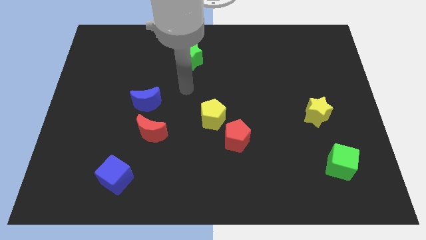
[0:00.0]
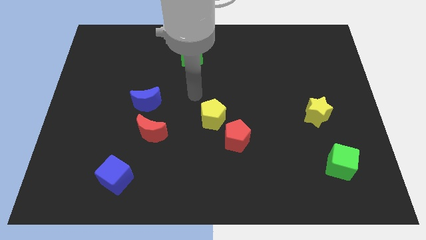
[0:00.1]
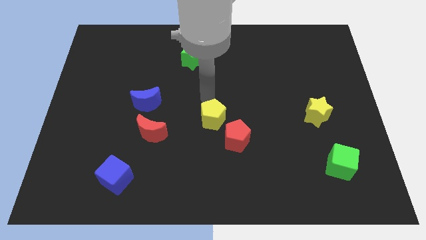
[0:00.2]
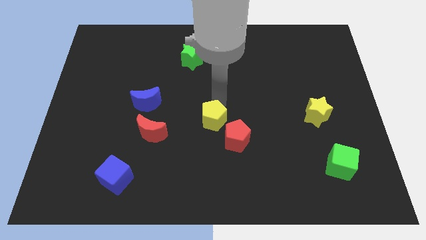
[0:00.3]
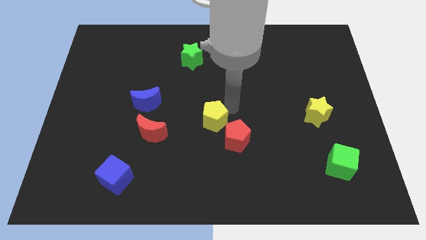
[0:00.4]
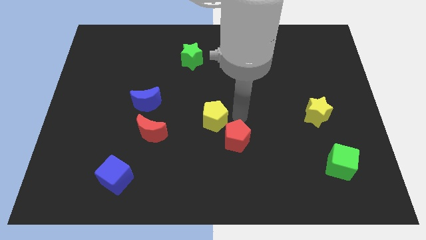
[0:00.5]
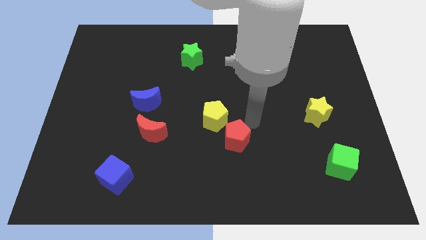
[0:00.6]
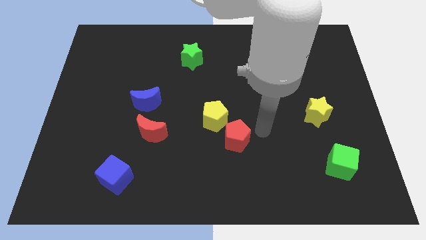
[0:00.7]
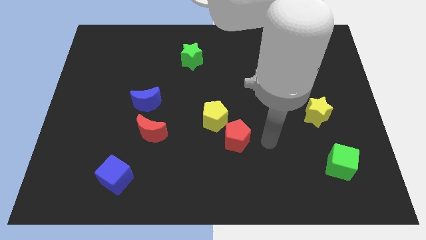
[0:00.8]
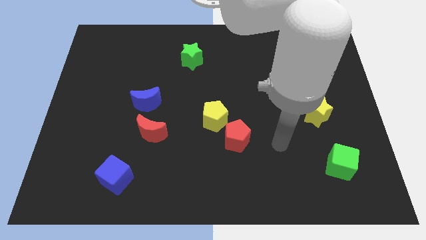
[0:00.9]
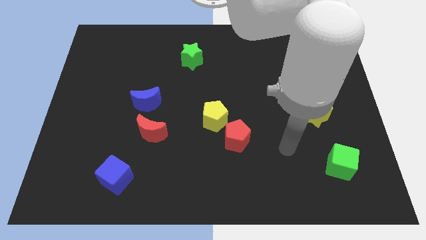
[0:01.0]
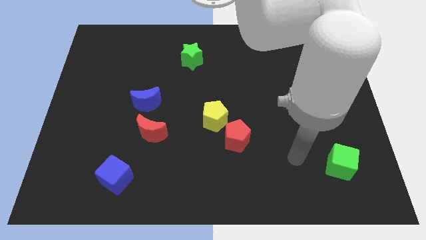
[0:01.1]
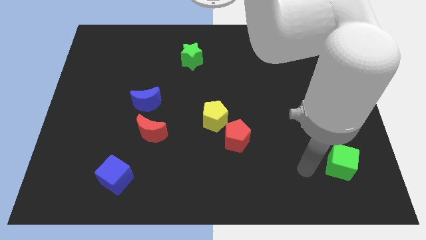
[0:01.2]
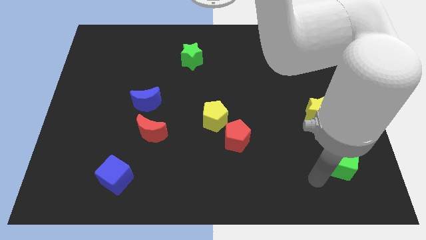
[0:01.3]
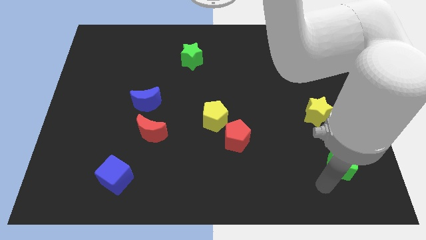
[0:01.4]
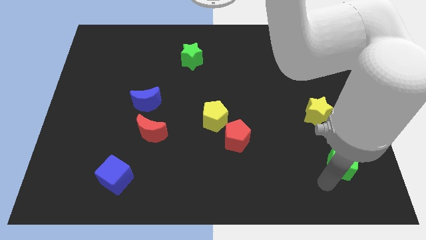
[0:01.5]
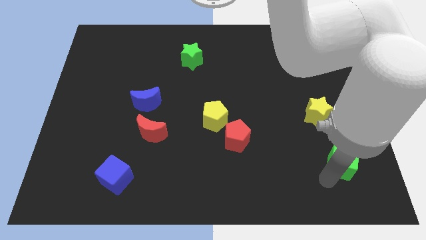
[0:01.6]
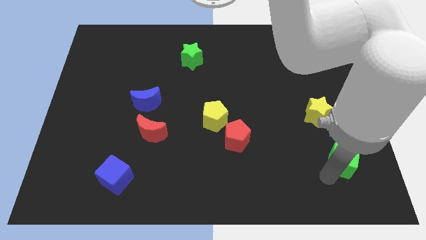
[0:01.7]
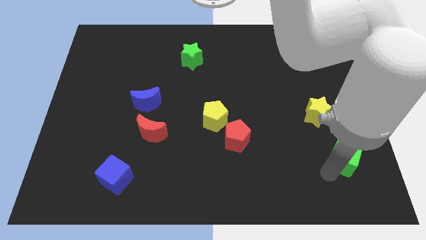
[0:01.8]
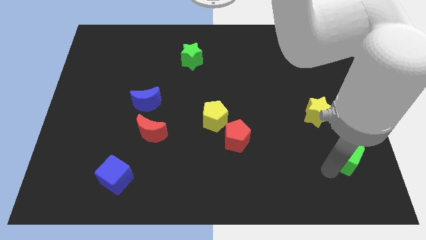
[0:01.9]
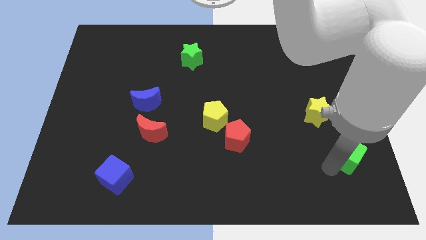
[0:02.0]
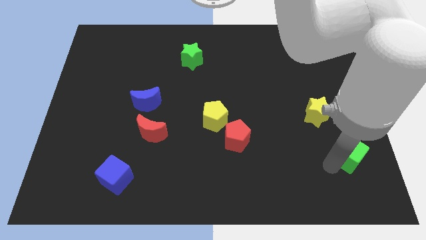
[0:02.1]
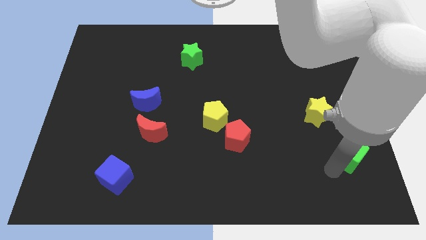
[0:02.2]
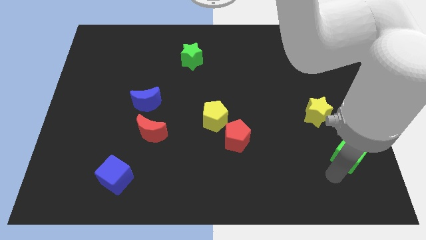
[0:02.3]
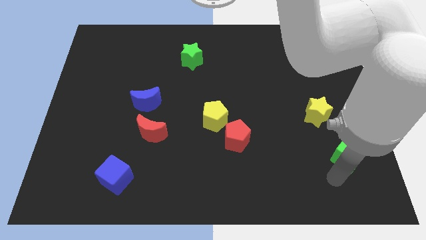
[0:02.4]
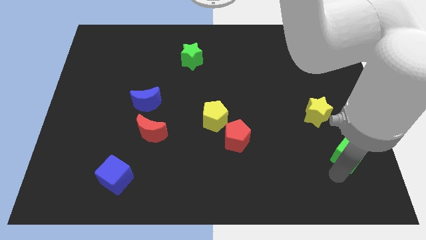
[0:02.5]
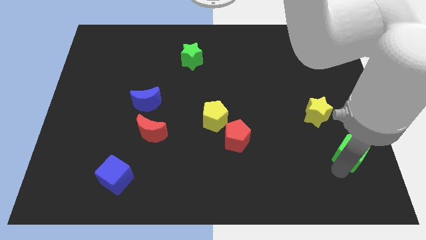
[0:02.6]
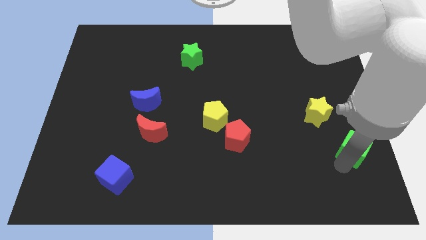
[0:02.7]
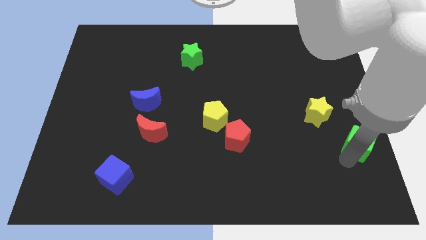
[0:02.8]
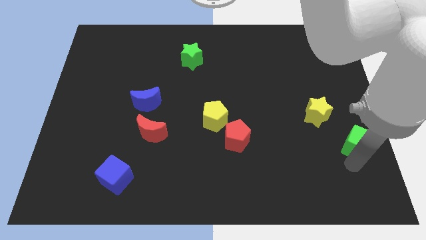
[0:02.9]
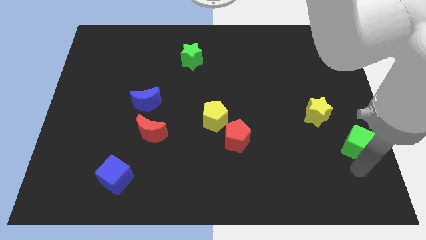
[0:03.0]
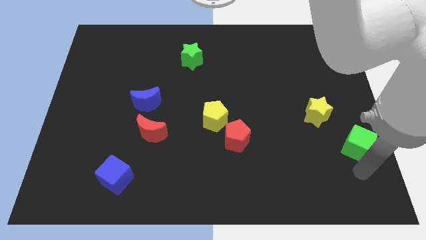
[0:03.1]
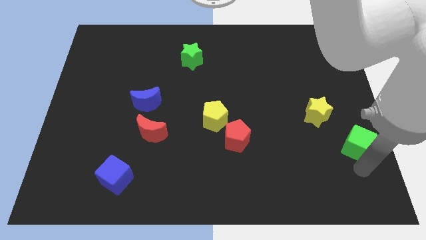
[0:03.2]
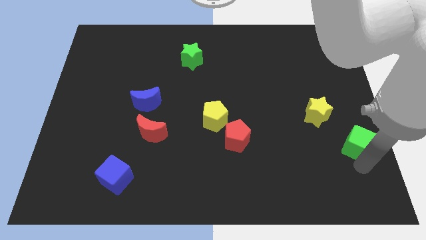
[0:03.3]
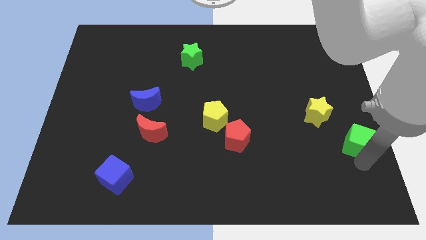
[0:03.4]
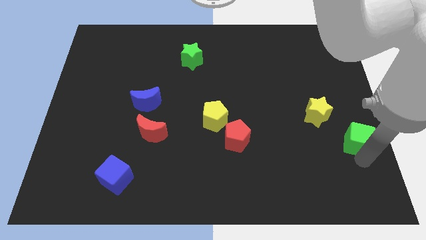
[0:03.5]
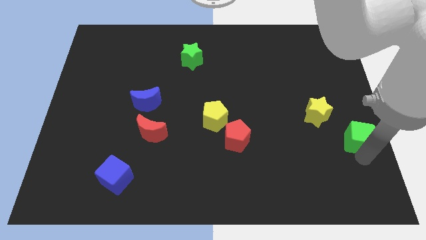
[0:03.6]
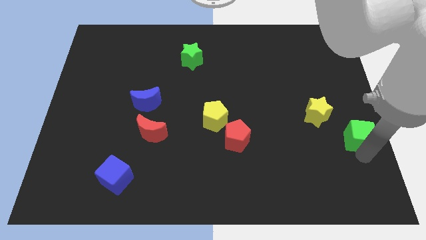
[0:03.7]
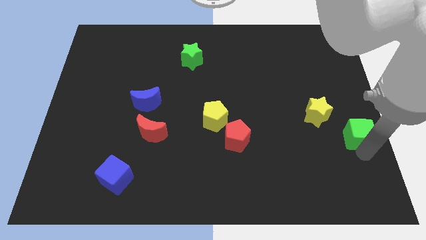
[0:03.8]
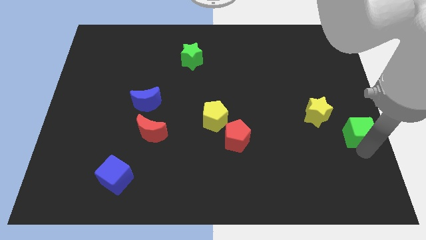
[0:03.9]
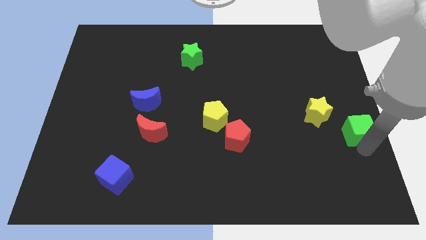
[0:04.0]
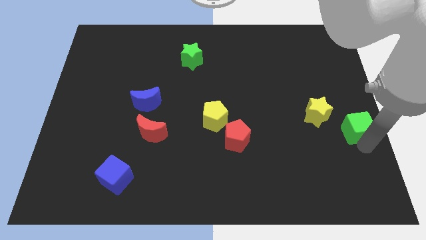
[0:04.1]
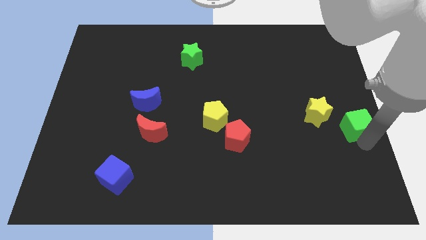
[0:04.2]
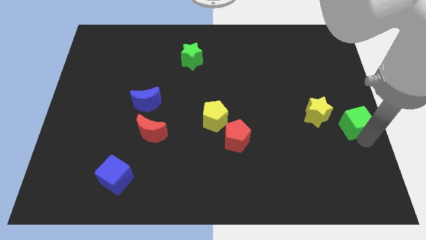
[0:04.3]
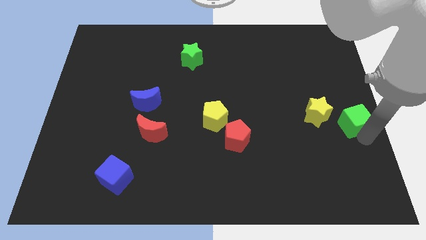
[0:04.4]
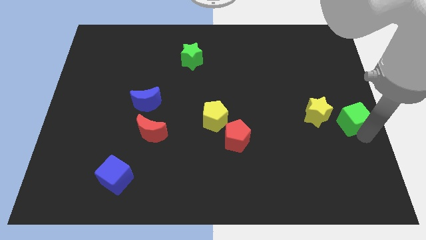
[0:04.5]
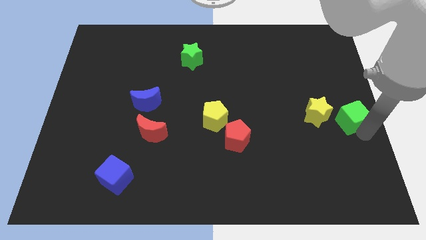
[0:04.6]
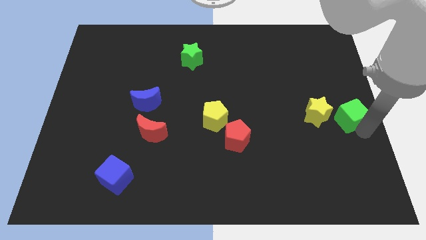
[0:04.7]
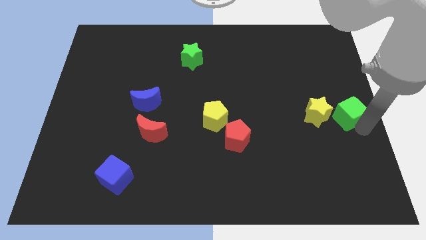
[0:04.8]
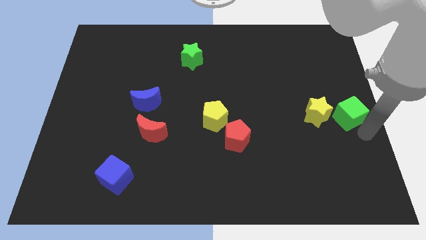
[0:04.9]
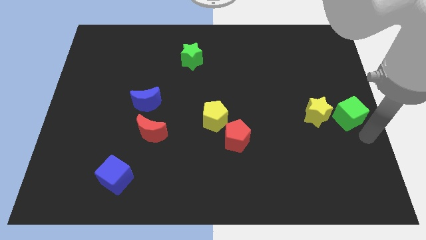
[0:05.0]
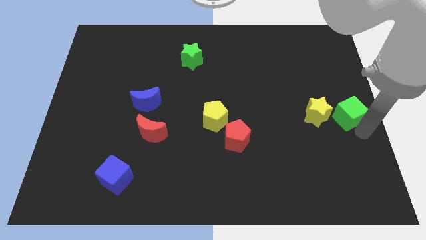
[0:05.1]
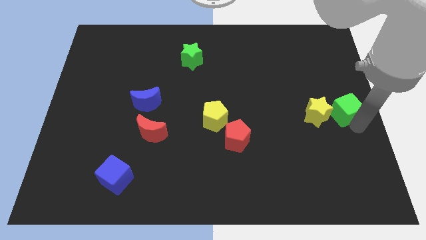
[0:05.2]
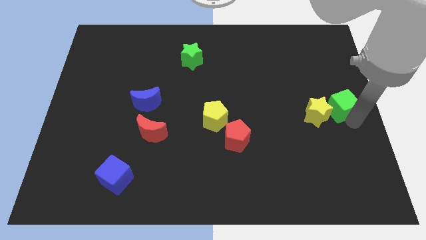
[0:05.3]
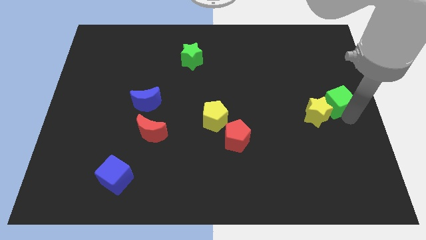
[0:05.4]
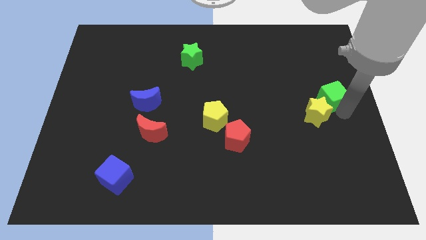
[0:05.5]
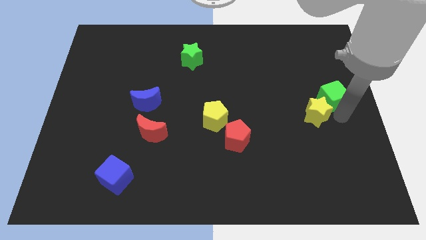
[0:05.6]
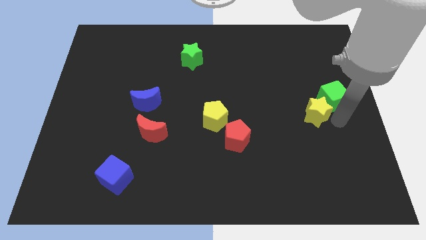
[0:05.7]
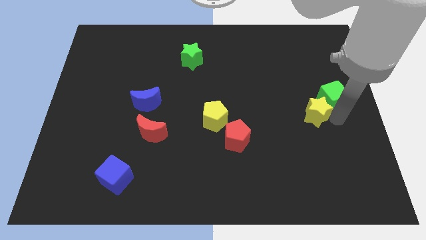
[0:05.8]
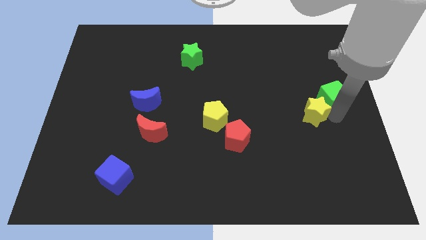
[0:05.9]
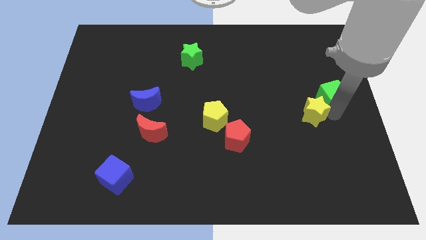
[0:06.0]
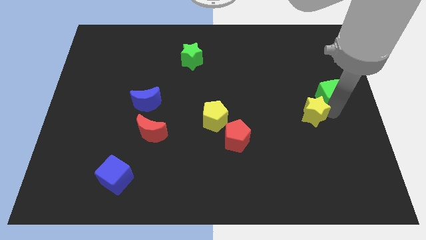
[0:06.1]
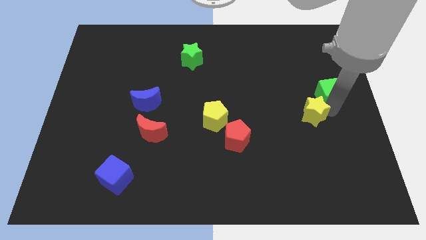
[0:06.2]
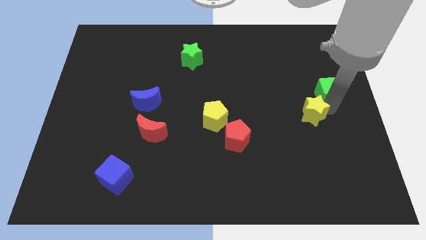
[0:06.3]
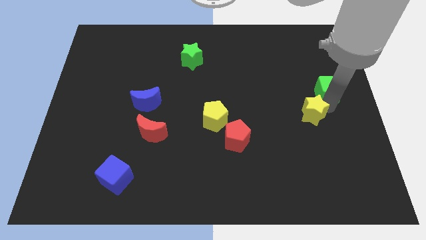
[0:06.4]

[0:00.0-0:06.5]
slide the green cube upwards

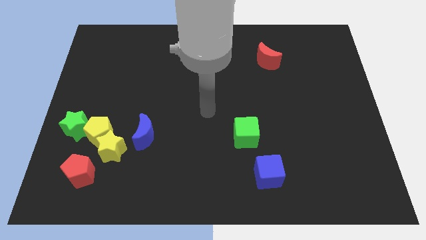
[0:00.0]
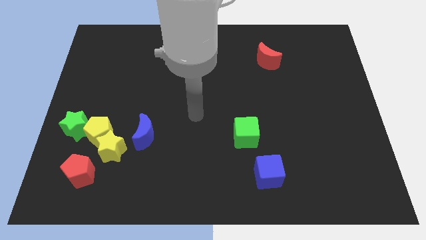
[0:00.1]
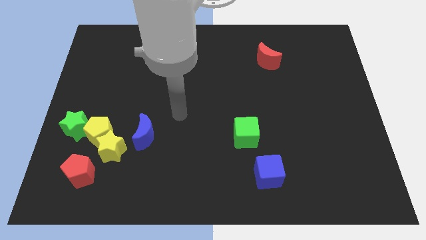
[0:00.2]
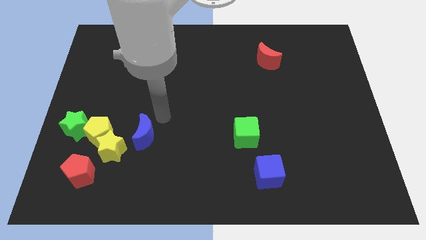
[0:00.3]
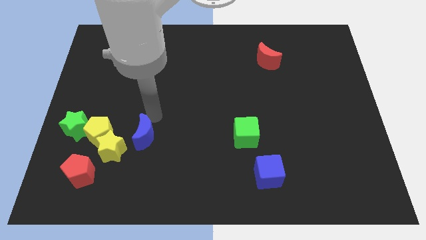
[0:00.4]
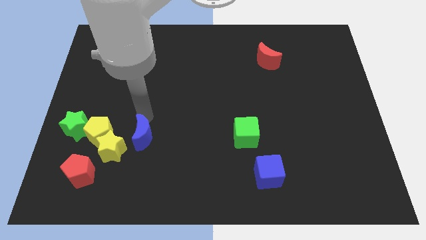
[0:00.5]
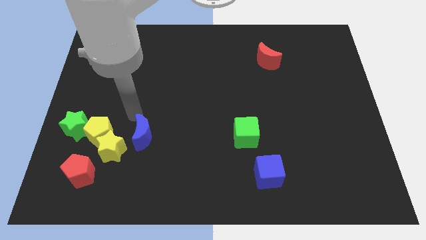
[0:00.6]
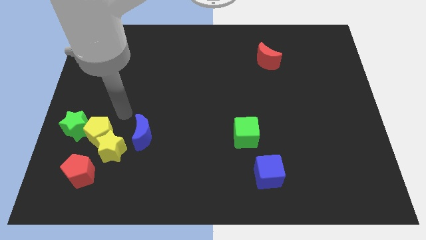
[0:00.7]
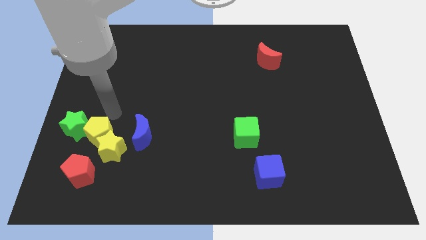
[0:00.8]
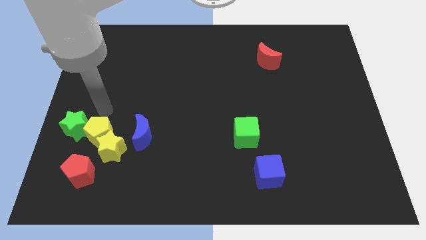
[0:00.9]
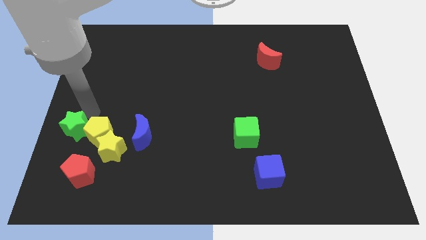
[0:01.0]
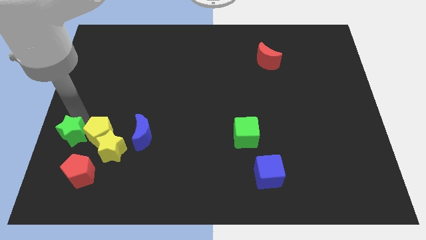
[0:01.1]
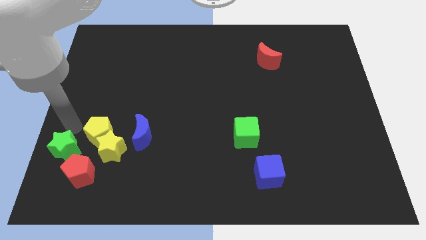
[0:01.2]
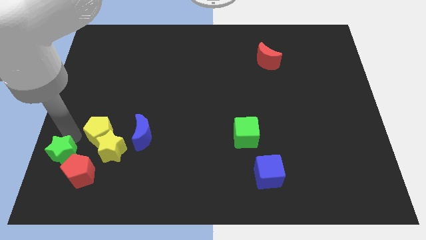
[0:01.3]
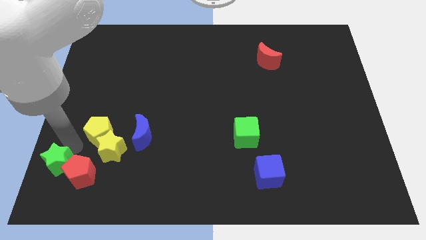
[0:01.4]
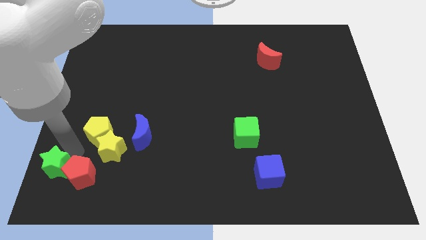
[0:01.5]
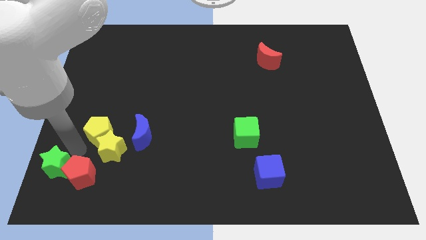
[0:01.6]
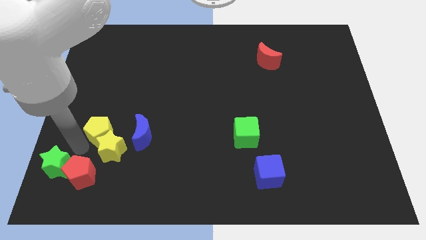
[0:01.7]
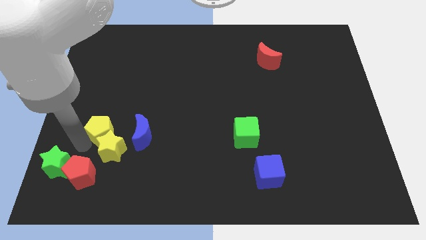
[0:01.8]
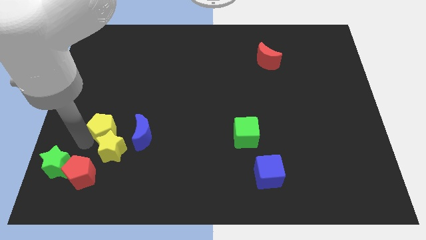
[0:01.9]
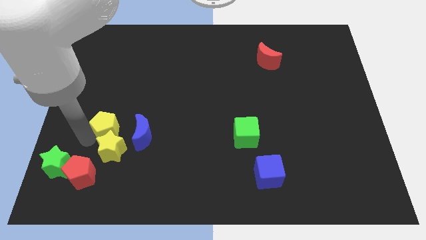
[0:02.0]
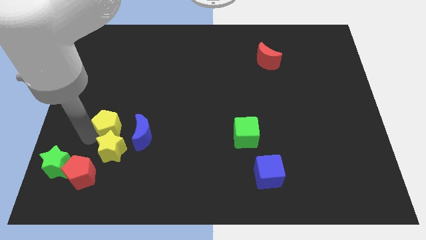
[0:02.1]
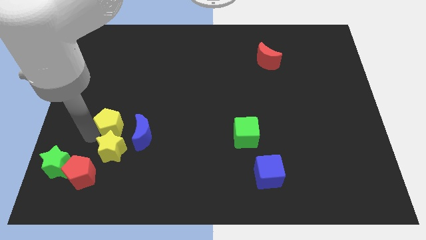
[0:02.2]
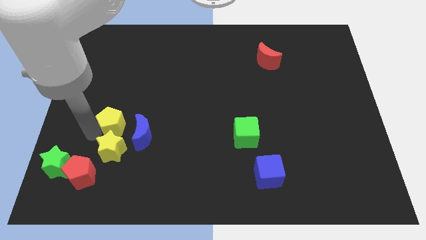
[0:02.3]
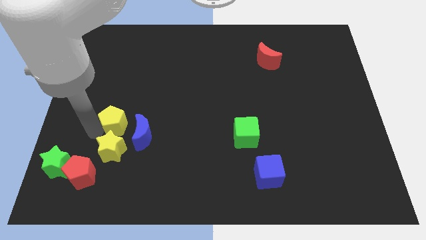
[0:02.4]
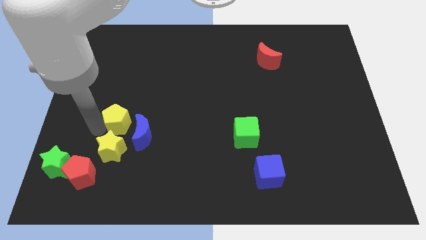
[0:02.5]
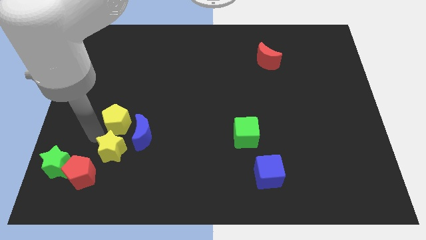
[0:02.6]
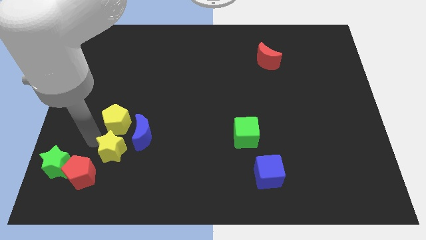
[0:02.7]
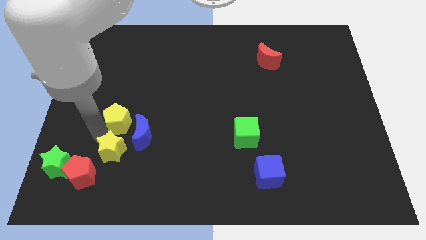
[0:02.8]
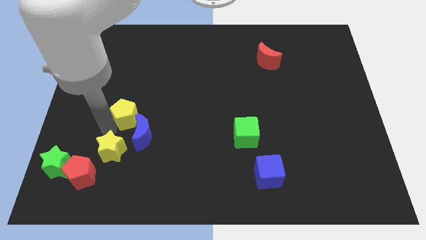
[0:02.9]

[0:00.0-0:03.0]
slide the yellow pentagon somewhat diagonally upwards and right
